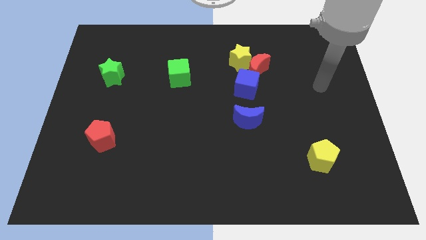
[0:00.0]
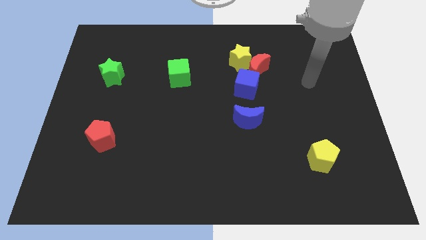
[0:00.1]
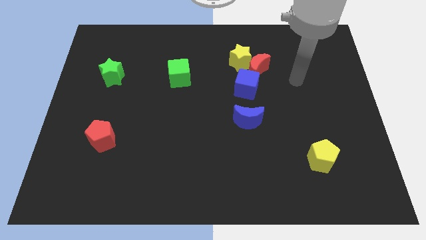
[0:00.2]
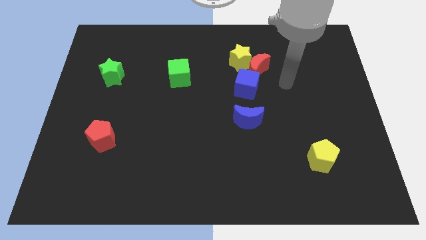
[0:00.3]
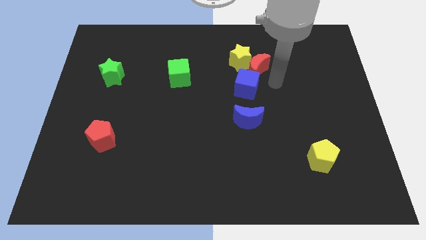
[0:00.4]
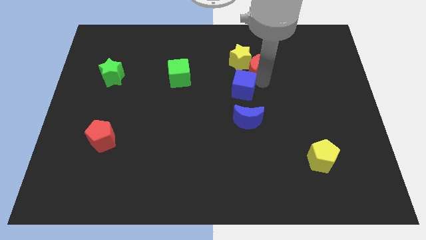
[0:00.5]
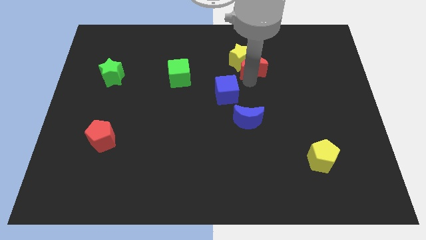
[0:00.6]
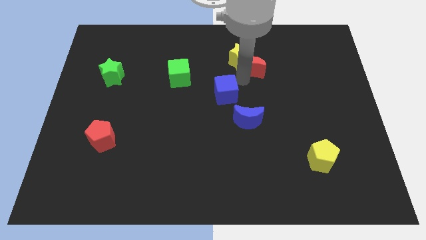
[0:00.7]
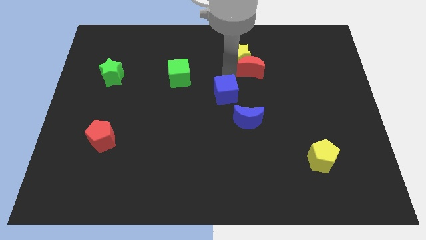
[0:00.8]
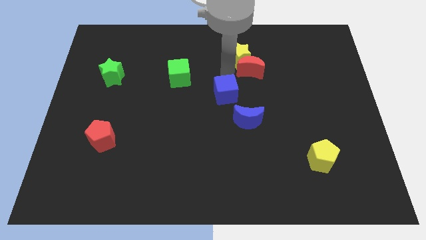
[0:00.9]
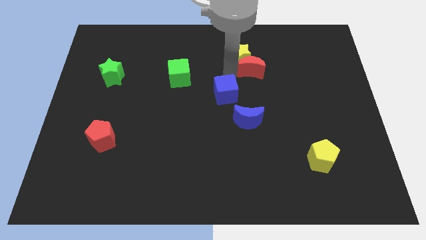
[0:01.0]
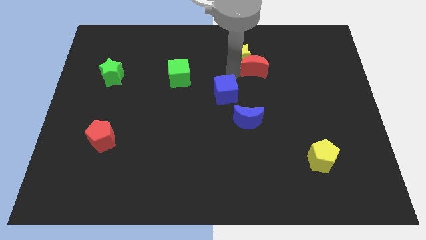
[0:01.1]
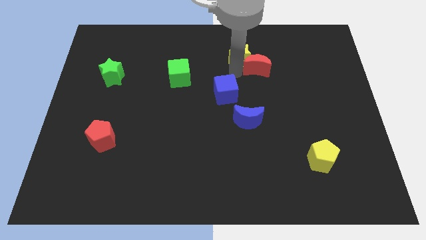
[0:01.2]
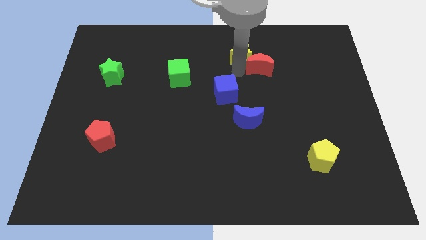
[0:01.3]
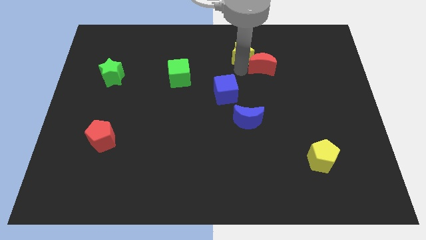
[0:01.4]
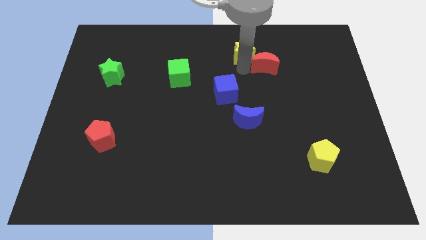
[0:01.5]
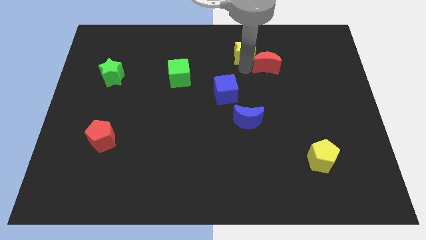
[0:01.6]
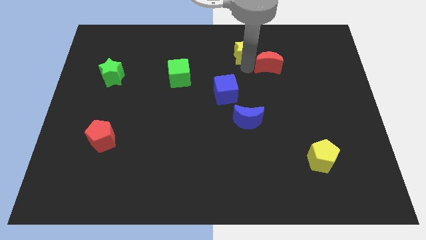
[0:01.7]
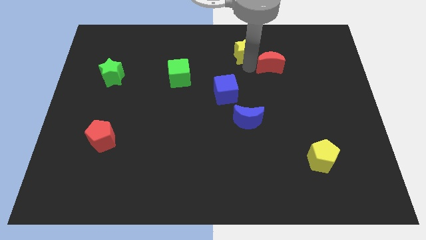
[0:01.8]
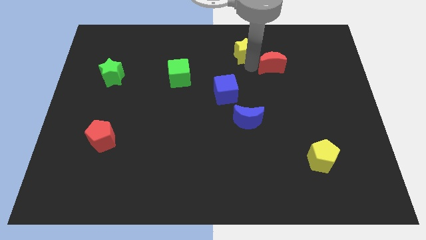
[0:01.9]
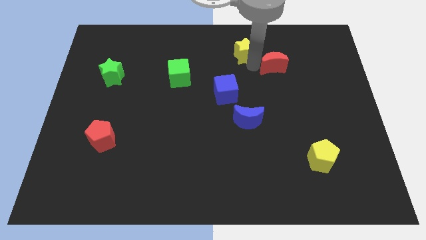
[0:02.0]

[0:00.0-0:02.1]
separate the red moon from the yellow star and blue cube

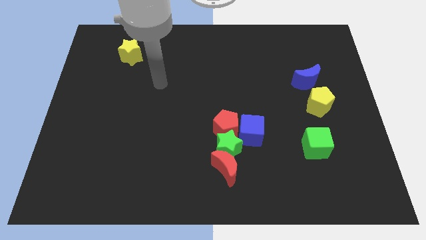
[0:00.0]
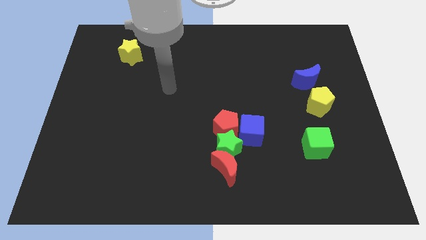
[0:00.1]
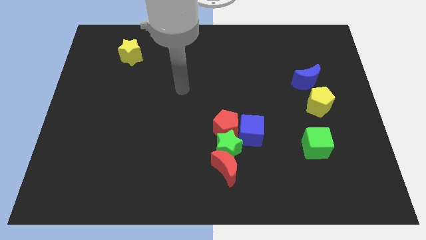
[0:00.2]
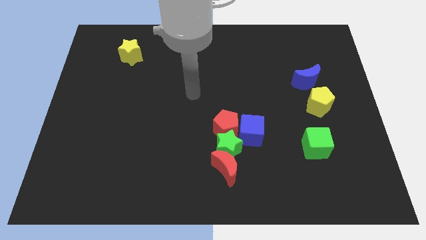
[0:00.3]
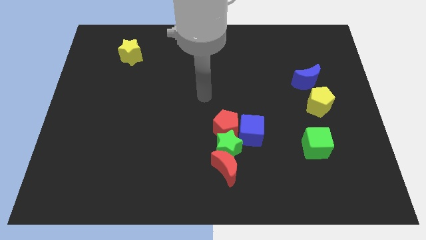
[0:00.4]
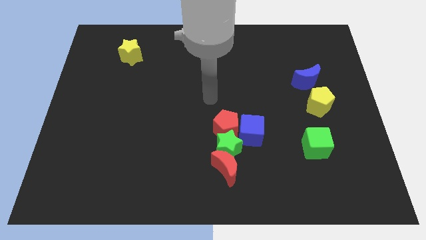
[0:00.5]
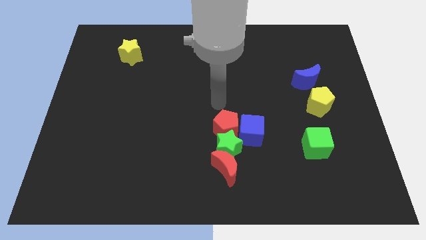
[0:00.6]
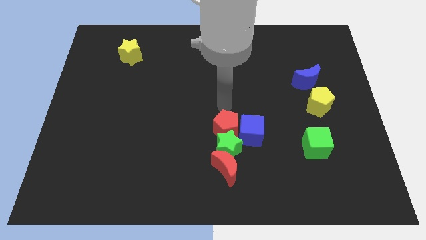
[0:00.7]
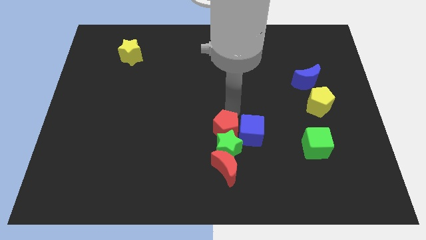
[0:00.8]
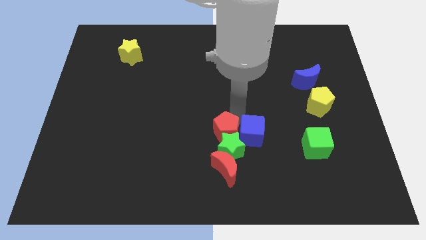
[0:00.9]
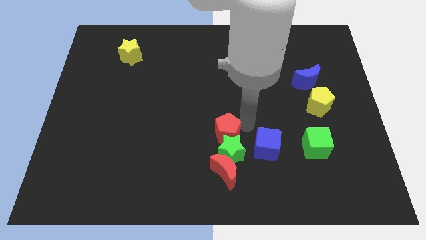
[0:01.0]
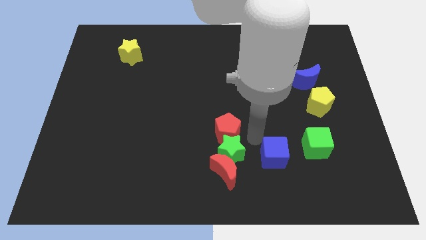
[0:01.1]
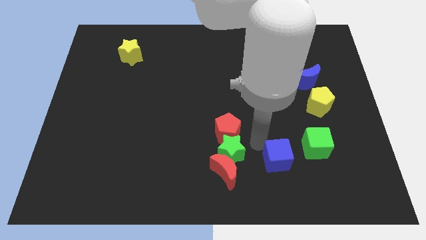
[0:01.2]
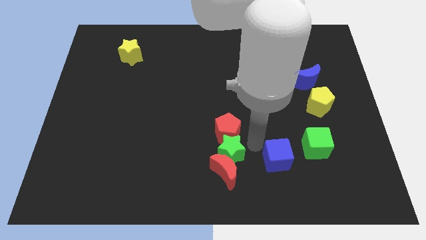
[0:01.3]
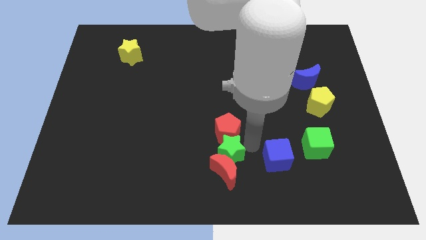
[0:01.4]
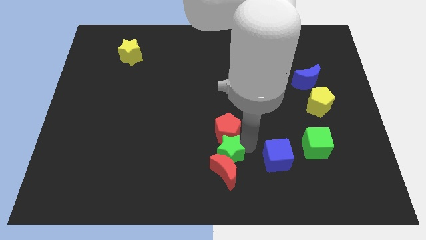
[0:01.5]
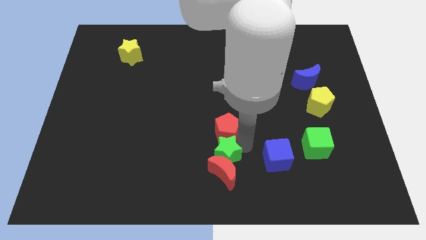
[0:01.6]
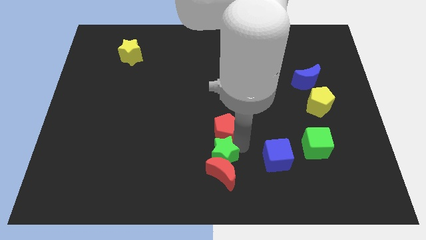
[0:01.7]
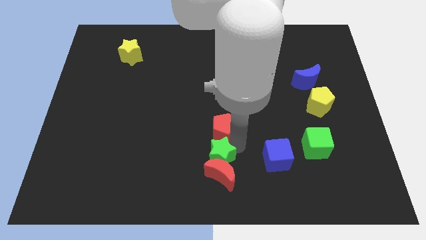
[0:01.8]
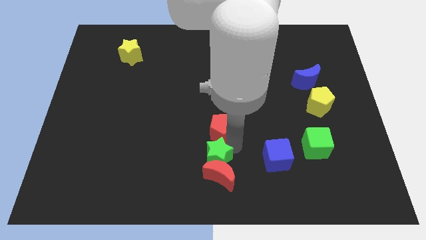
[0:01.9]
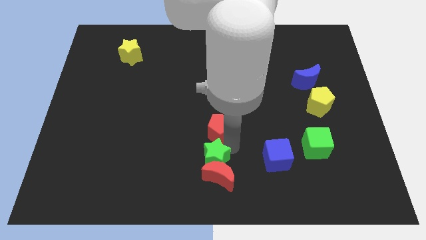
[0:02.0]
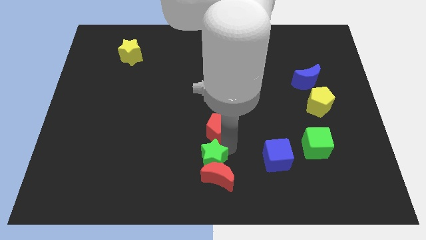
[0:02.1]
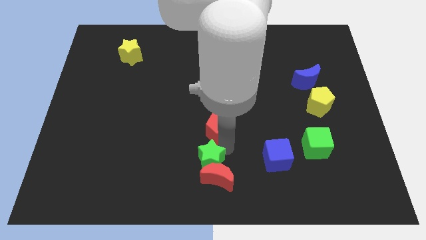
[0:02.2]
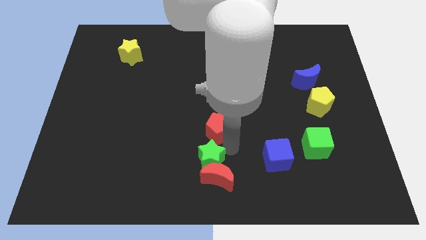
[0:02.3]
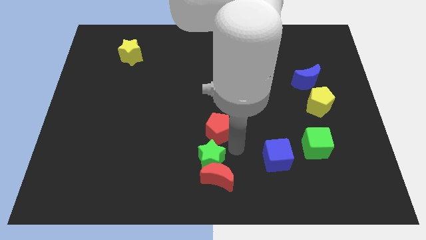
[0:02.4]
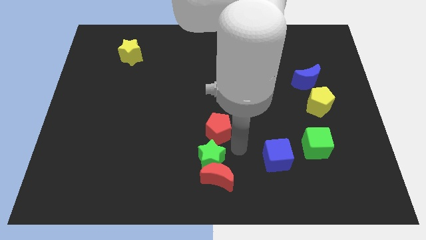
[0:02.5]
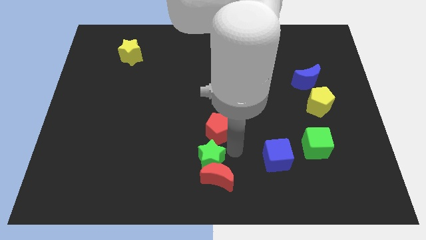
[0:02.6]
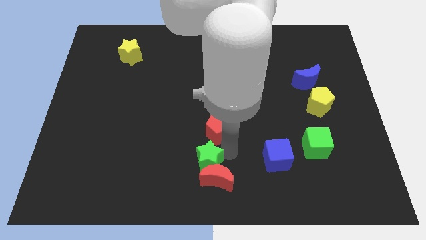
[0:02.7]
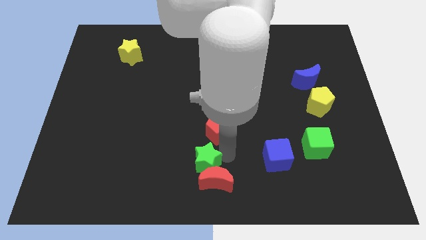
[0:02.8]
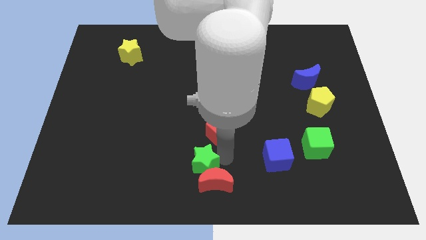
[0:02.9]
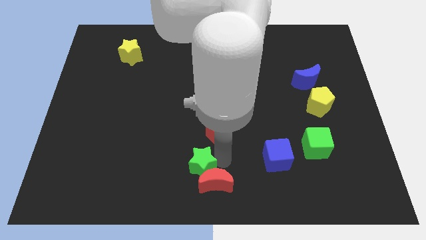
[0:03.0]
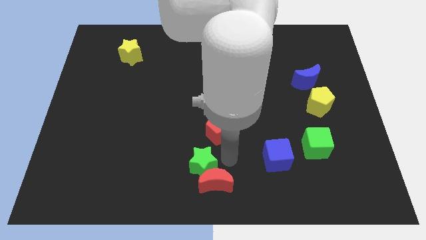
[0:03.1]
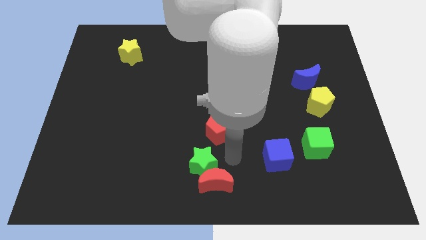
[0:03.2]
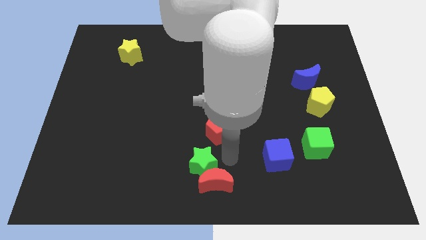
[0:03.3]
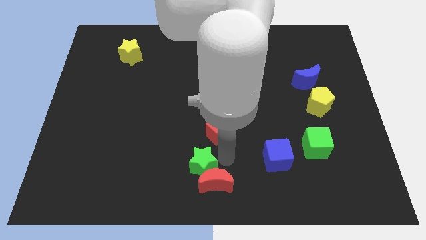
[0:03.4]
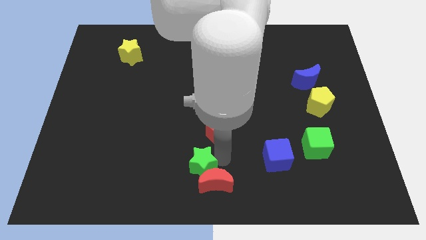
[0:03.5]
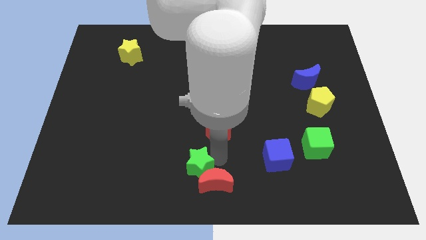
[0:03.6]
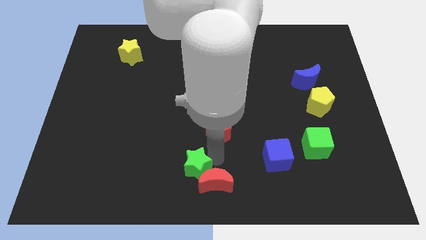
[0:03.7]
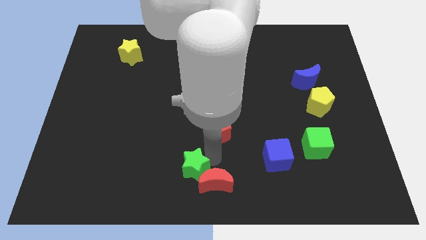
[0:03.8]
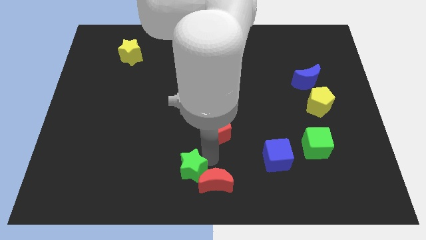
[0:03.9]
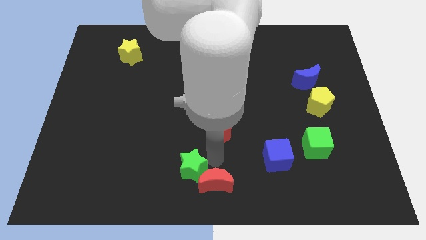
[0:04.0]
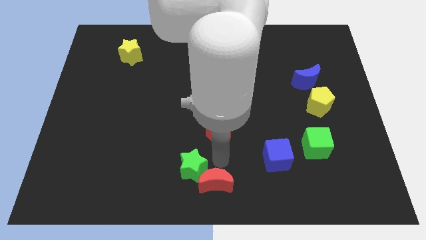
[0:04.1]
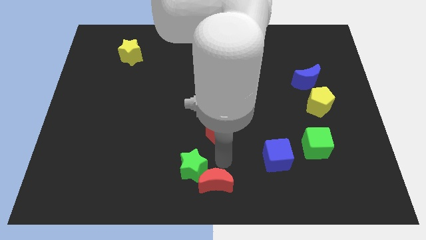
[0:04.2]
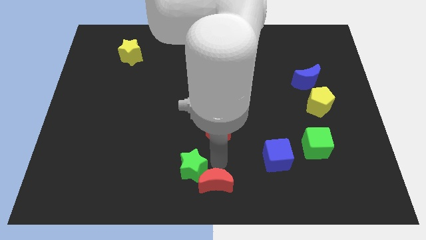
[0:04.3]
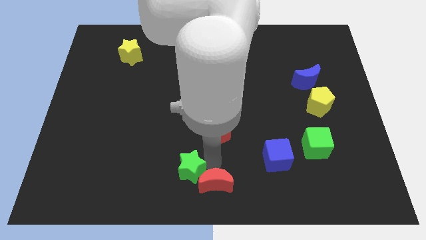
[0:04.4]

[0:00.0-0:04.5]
move the green star away from the group

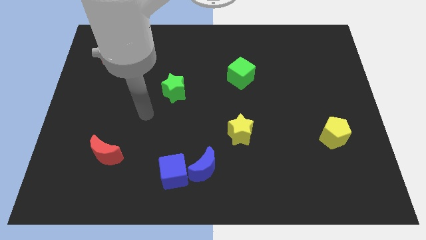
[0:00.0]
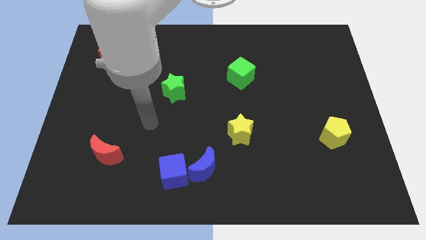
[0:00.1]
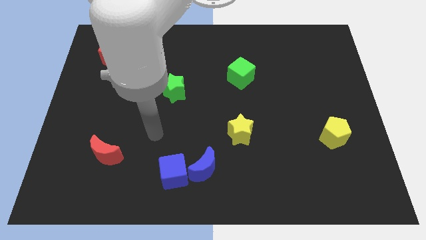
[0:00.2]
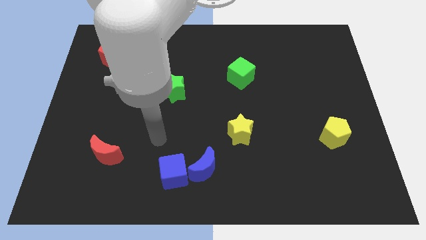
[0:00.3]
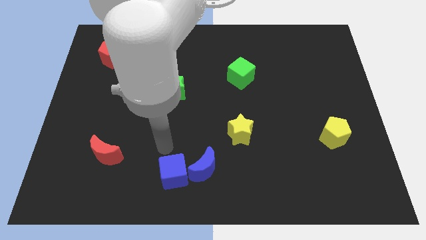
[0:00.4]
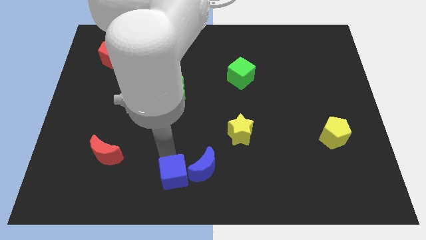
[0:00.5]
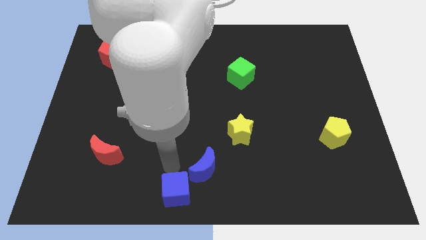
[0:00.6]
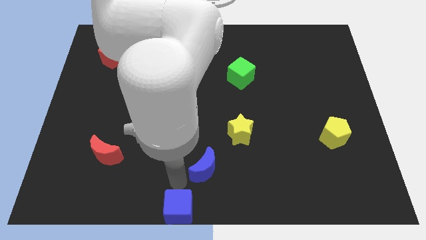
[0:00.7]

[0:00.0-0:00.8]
move the blue moon away from the blue cube

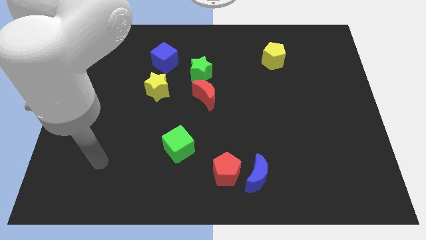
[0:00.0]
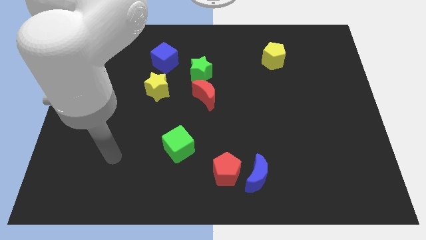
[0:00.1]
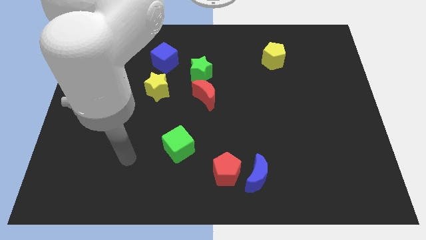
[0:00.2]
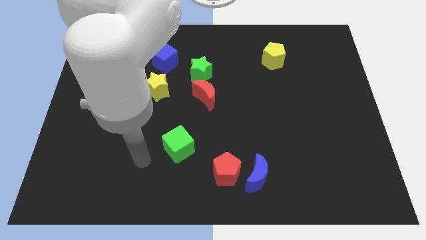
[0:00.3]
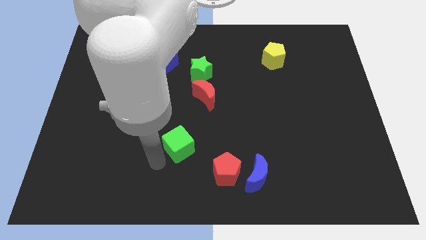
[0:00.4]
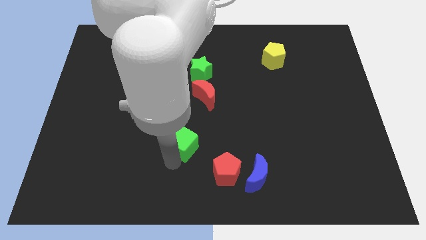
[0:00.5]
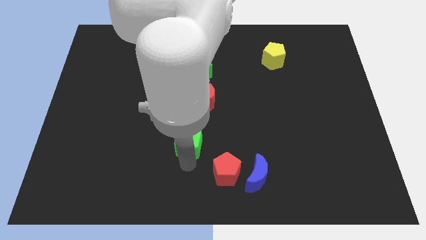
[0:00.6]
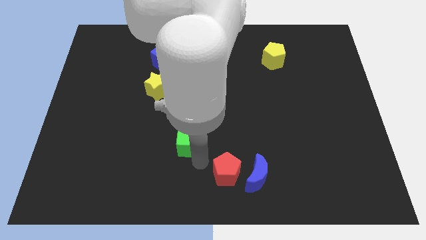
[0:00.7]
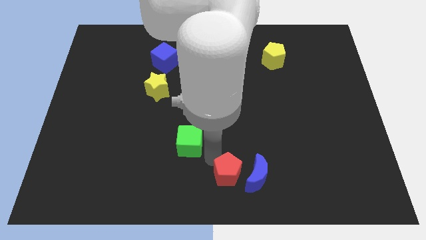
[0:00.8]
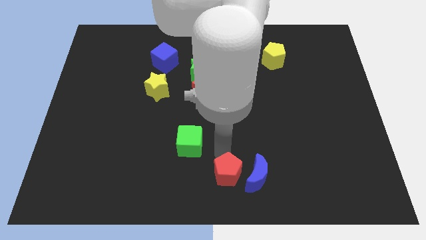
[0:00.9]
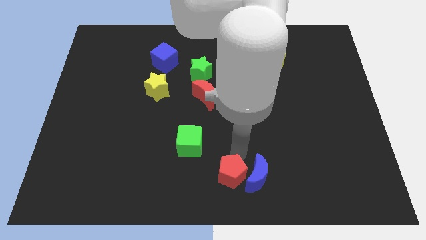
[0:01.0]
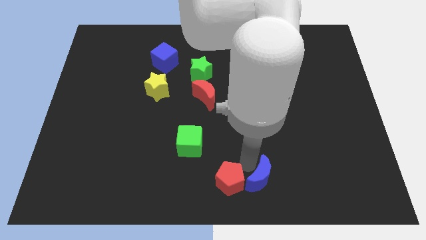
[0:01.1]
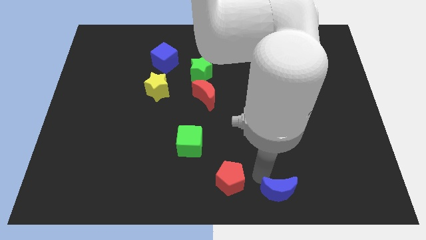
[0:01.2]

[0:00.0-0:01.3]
pull the red pentagon apart from the blue moon

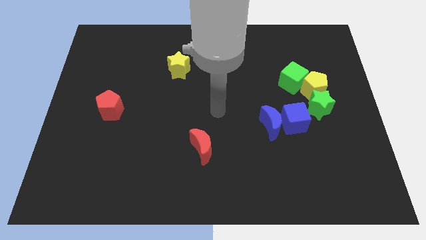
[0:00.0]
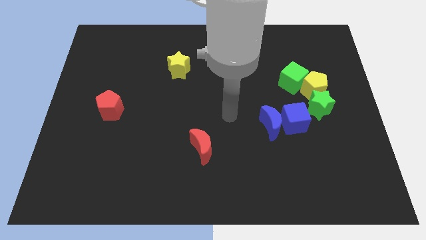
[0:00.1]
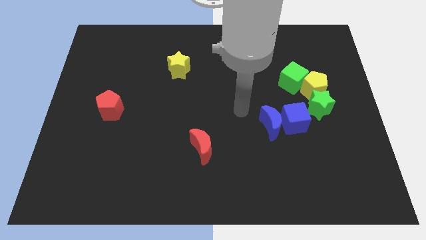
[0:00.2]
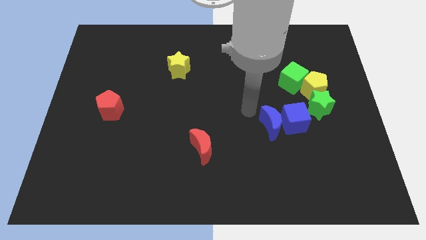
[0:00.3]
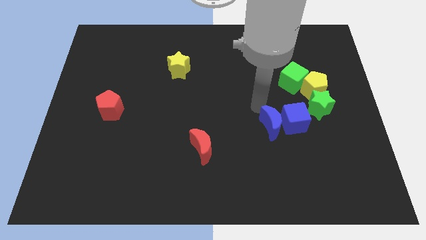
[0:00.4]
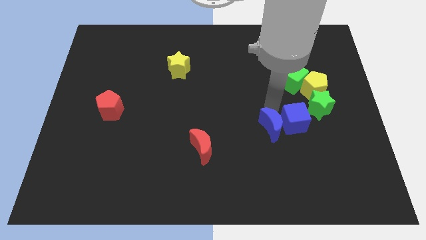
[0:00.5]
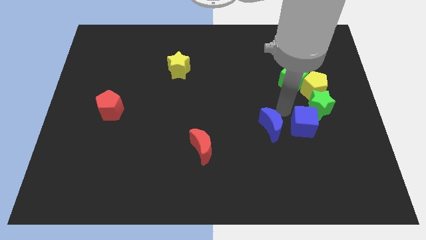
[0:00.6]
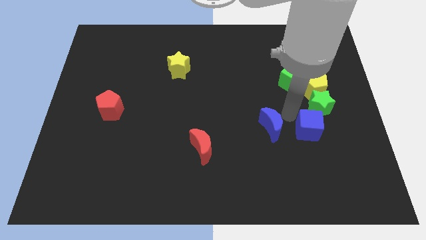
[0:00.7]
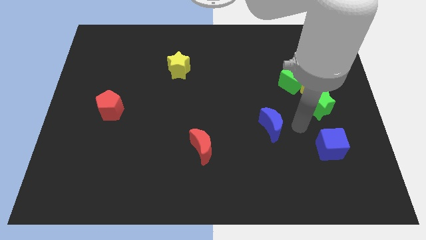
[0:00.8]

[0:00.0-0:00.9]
separate the blue moon from the blue cube
